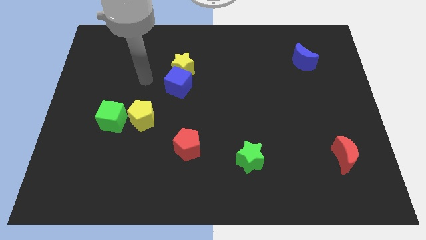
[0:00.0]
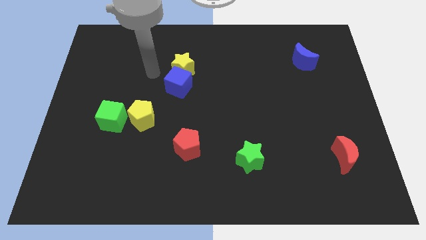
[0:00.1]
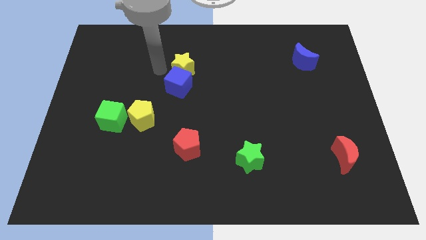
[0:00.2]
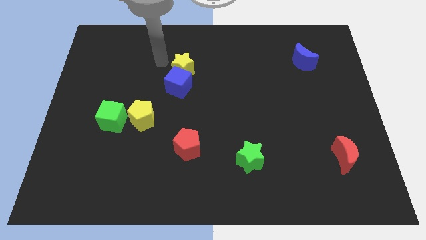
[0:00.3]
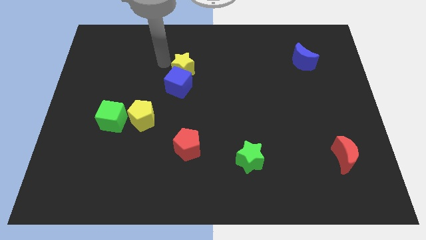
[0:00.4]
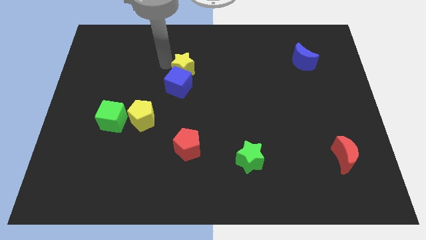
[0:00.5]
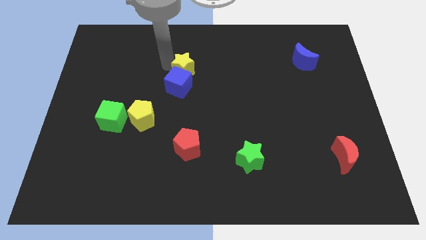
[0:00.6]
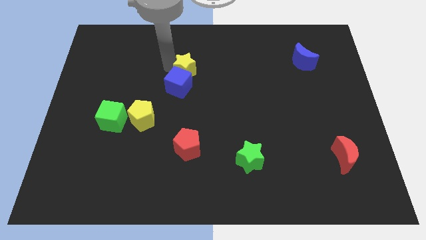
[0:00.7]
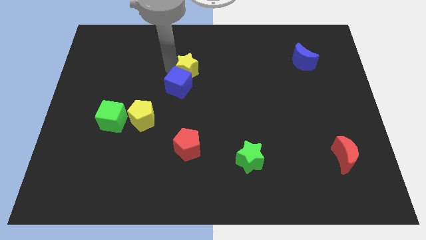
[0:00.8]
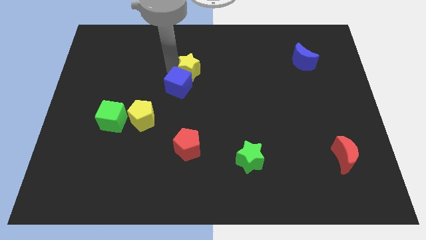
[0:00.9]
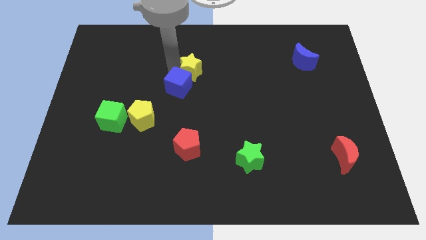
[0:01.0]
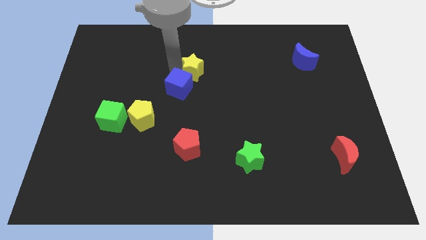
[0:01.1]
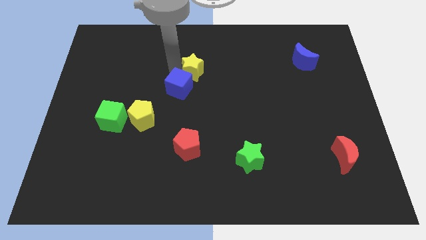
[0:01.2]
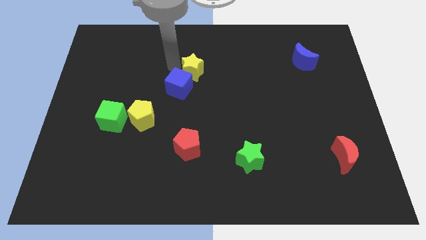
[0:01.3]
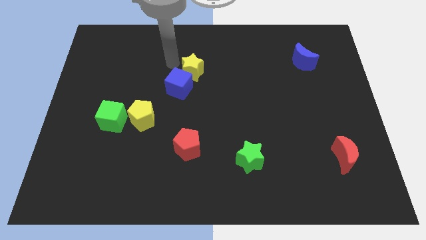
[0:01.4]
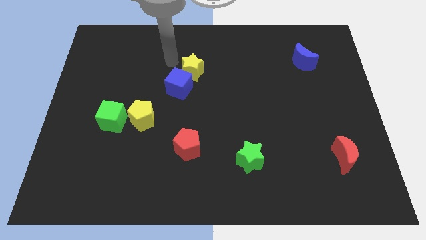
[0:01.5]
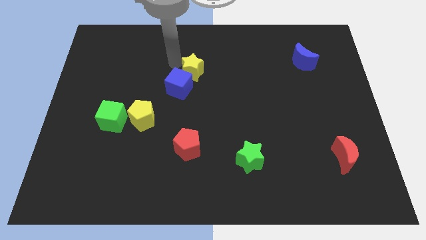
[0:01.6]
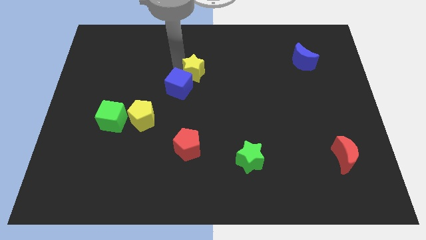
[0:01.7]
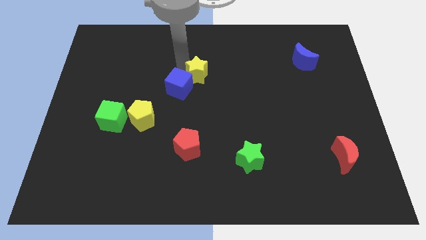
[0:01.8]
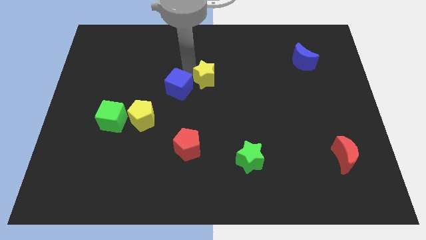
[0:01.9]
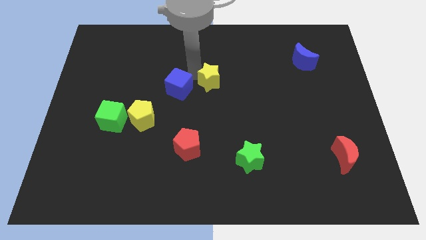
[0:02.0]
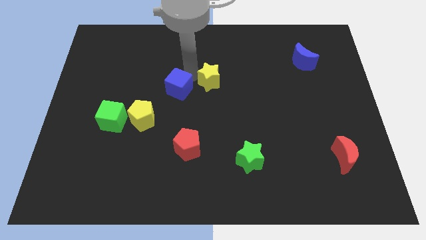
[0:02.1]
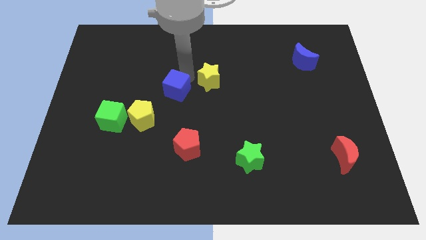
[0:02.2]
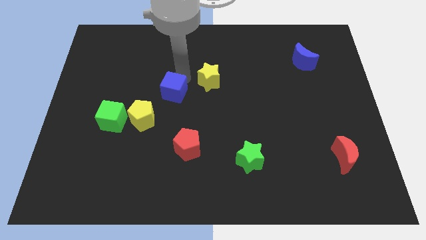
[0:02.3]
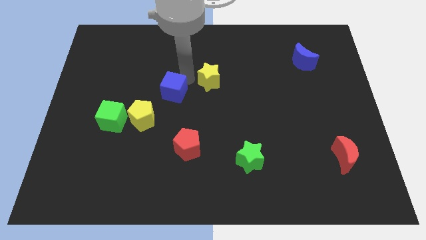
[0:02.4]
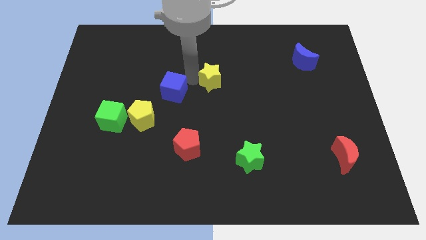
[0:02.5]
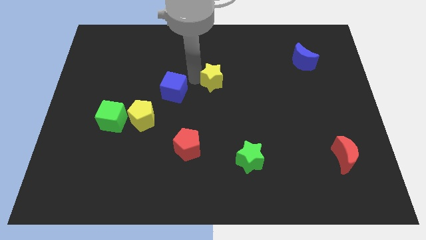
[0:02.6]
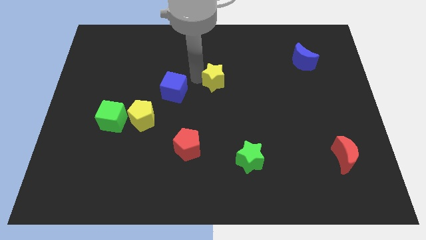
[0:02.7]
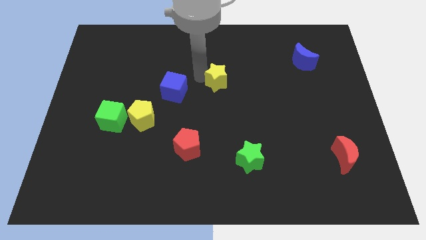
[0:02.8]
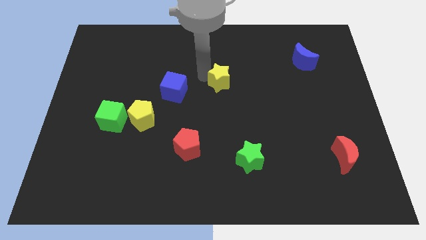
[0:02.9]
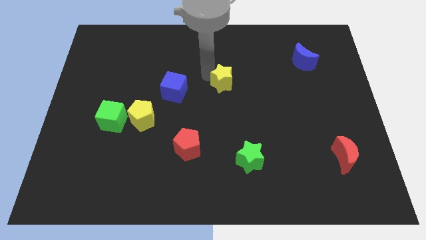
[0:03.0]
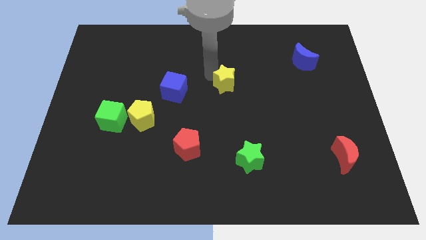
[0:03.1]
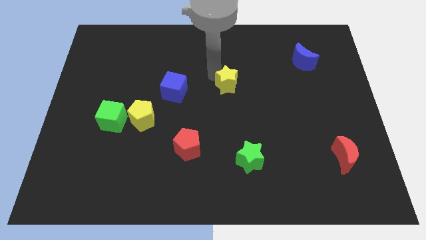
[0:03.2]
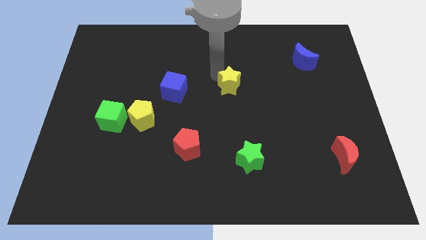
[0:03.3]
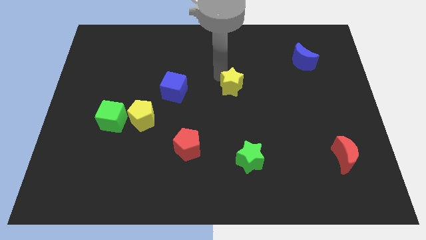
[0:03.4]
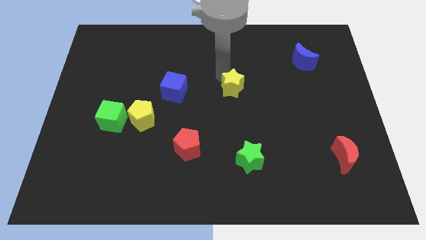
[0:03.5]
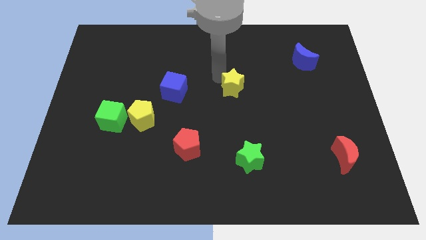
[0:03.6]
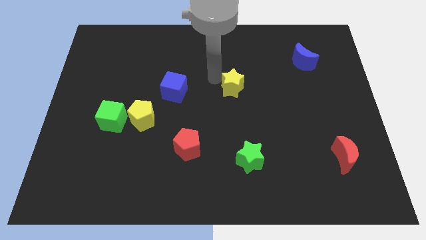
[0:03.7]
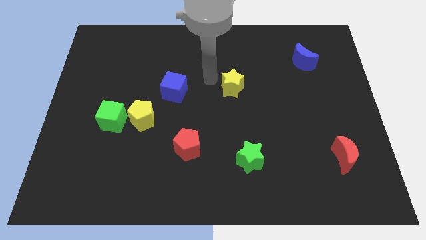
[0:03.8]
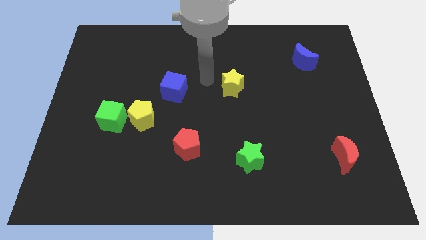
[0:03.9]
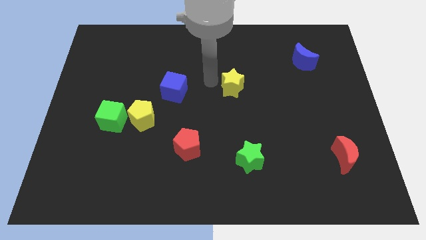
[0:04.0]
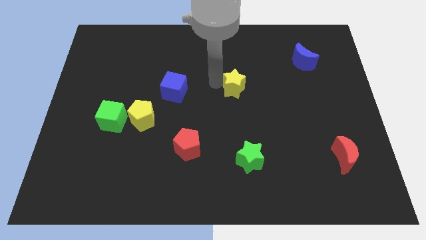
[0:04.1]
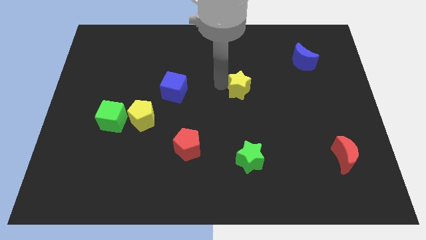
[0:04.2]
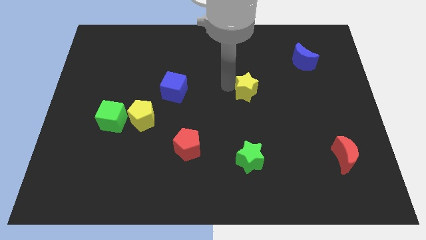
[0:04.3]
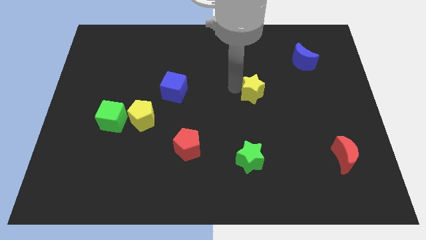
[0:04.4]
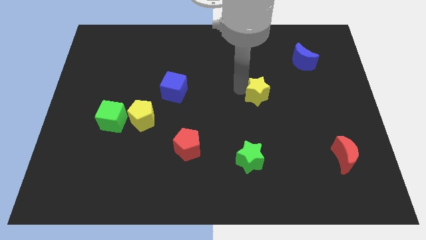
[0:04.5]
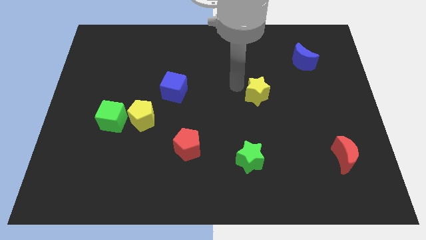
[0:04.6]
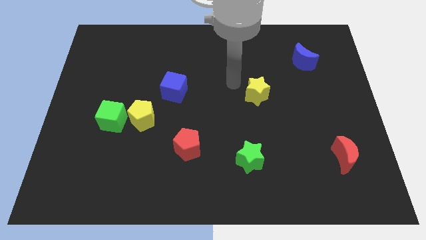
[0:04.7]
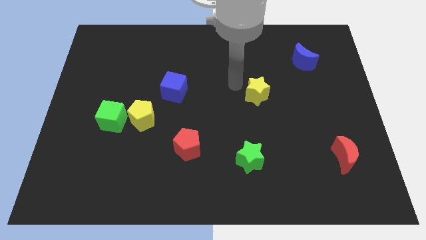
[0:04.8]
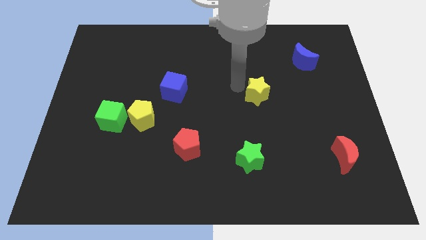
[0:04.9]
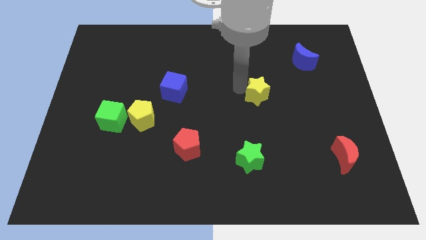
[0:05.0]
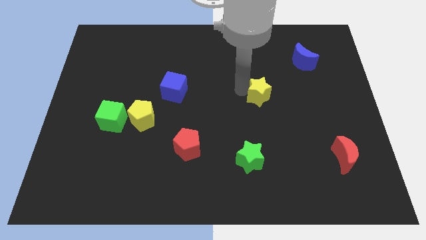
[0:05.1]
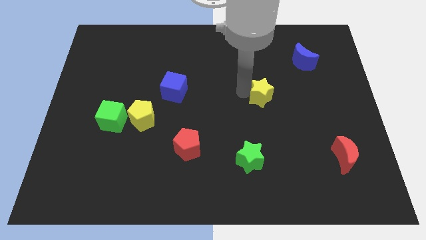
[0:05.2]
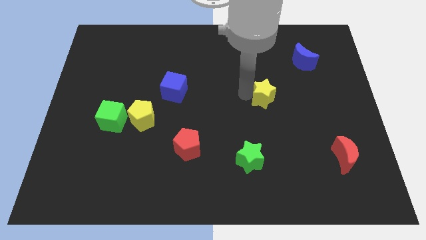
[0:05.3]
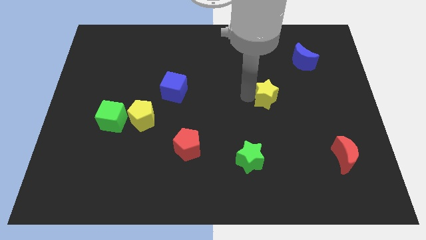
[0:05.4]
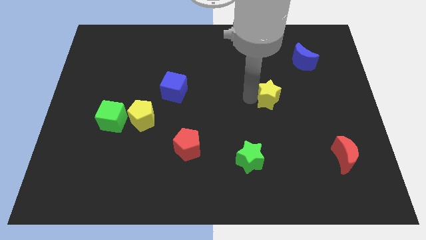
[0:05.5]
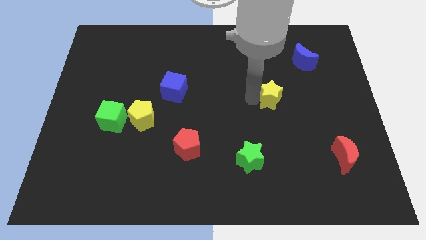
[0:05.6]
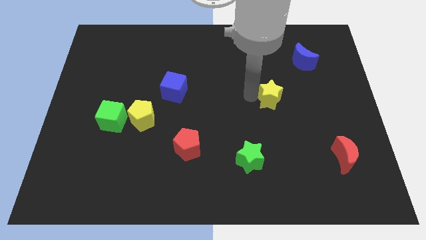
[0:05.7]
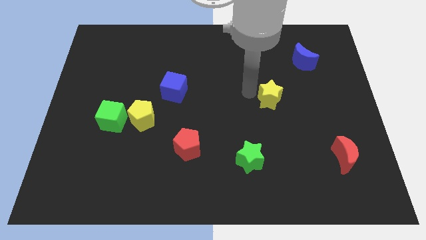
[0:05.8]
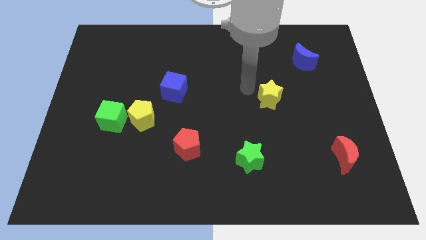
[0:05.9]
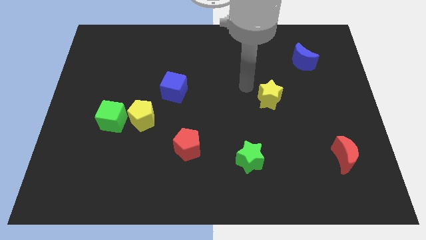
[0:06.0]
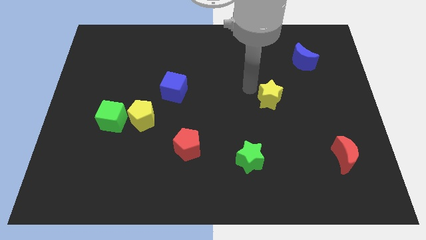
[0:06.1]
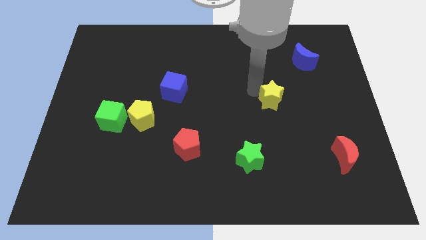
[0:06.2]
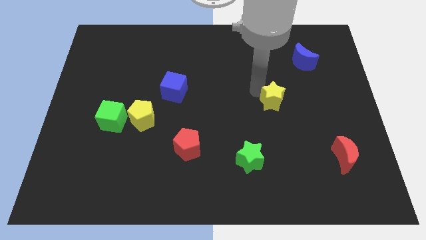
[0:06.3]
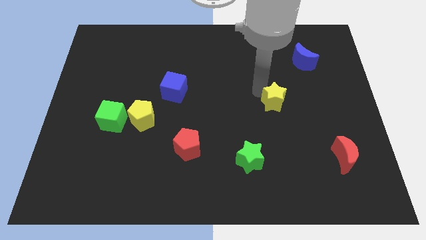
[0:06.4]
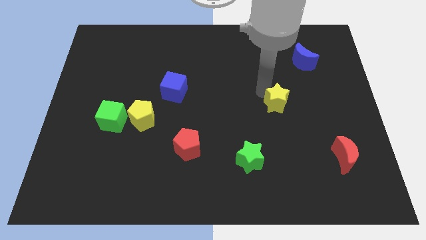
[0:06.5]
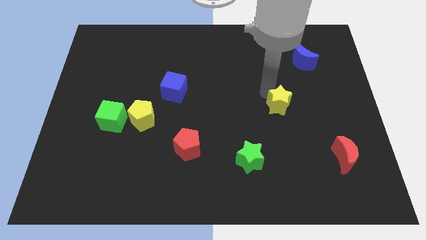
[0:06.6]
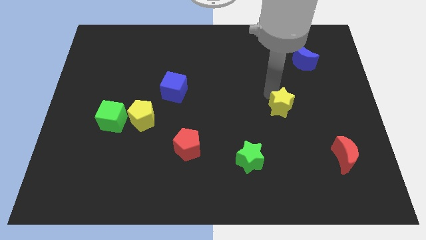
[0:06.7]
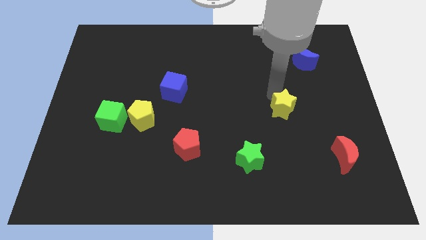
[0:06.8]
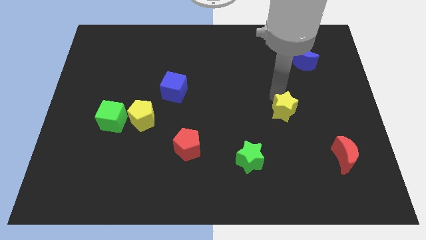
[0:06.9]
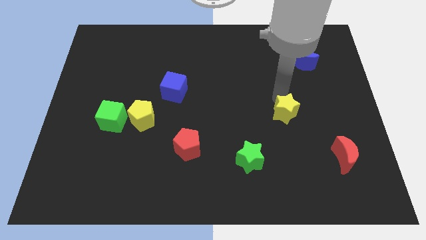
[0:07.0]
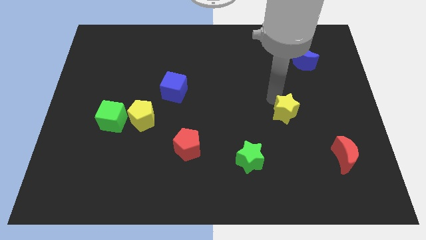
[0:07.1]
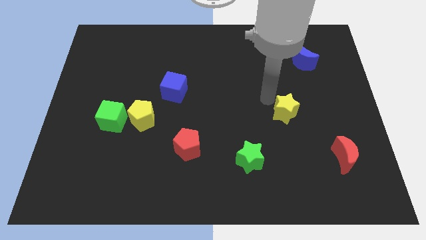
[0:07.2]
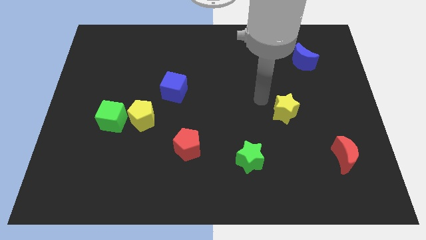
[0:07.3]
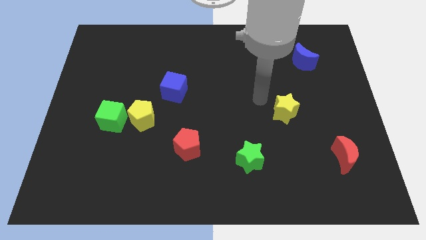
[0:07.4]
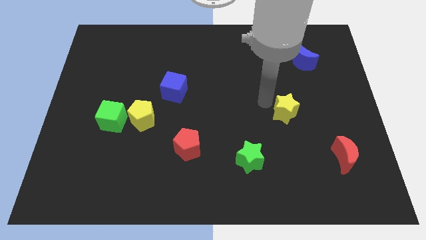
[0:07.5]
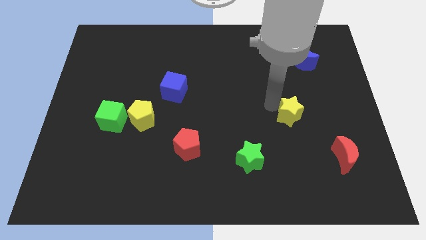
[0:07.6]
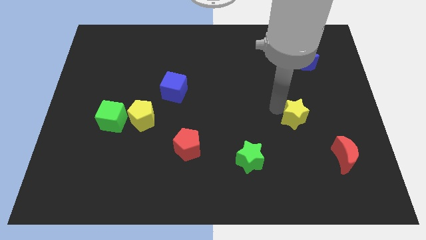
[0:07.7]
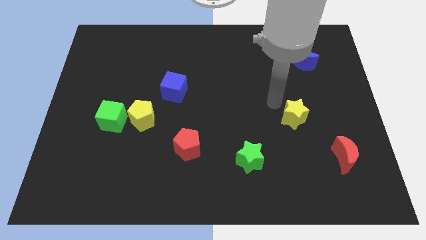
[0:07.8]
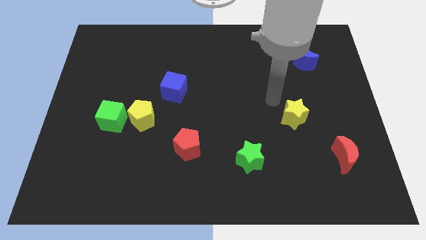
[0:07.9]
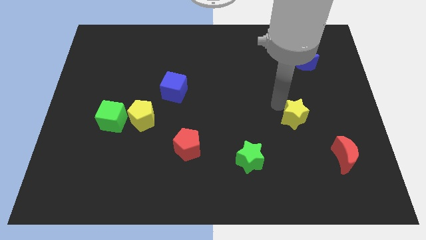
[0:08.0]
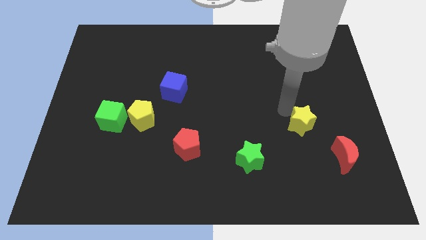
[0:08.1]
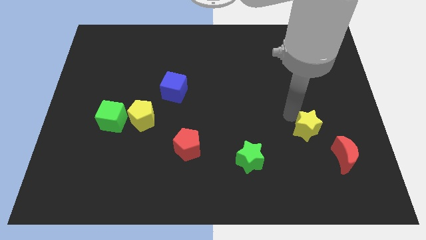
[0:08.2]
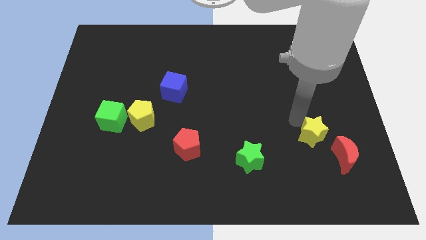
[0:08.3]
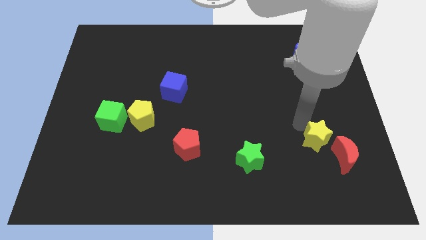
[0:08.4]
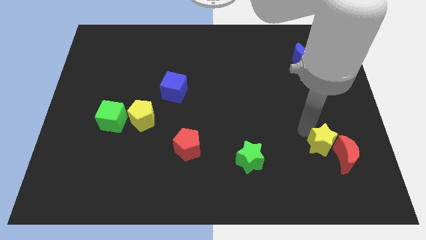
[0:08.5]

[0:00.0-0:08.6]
push the yellow star to the red moon
